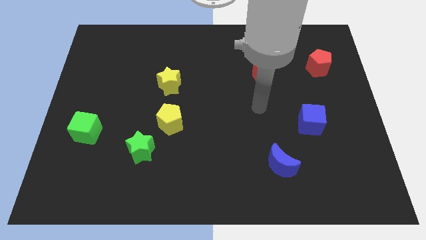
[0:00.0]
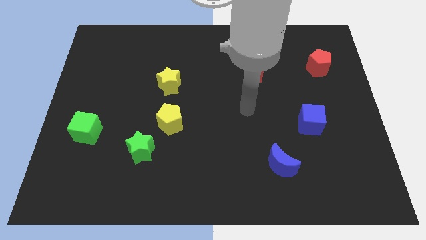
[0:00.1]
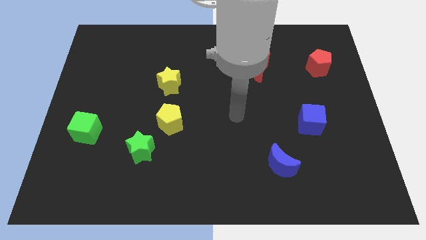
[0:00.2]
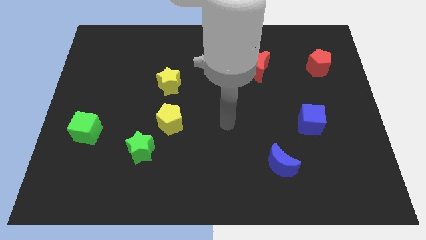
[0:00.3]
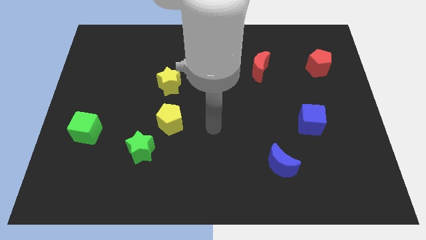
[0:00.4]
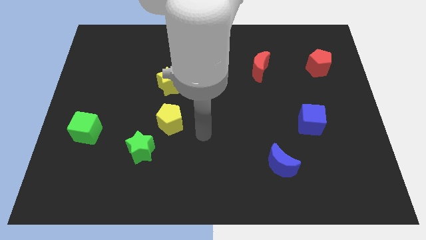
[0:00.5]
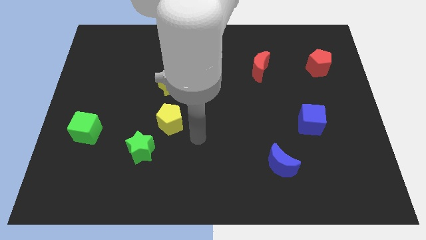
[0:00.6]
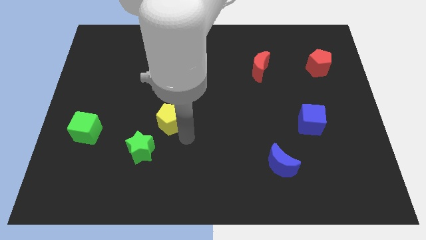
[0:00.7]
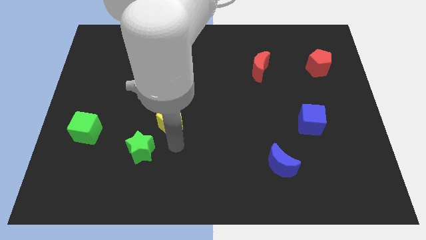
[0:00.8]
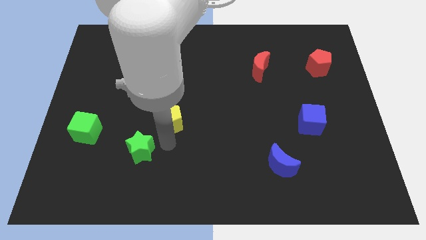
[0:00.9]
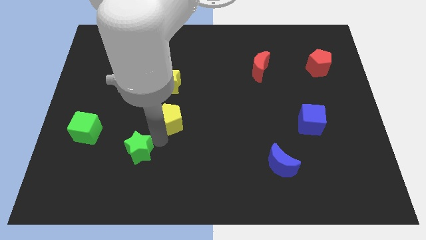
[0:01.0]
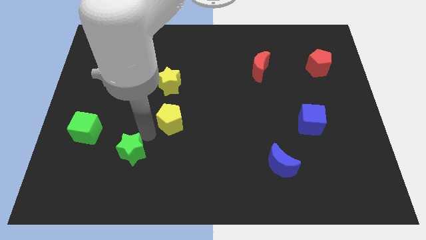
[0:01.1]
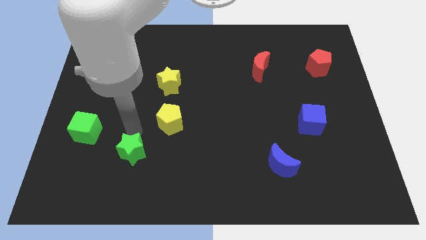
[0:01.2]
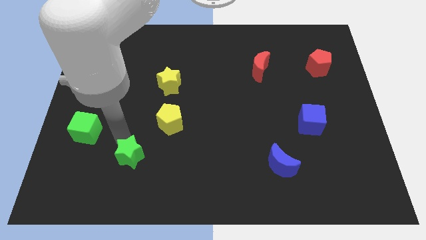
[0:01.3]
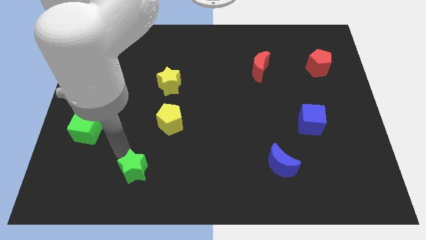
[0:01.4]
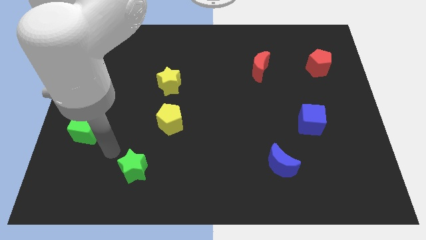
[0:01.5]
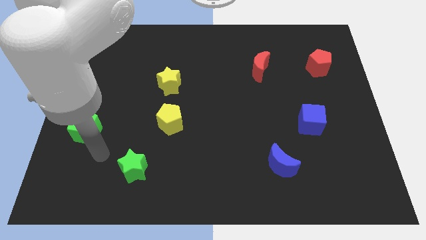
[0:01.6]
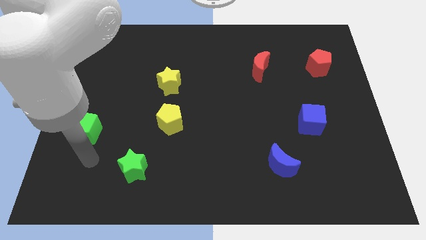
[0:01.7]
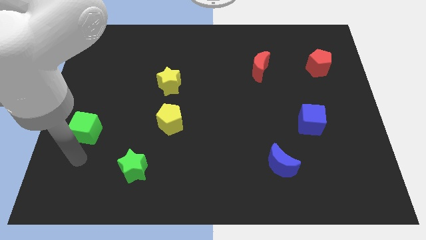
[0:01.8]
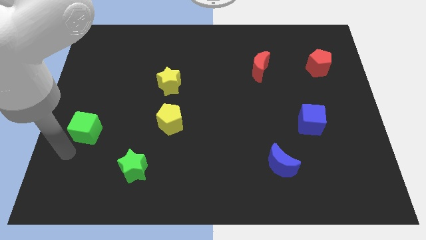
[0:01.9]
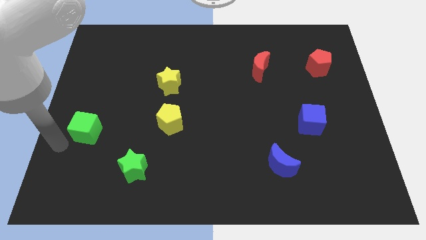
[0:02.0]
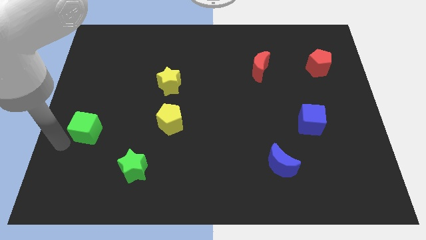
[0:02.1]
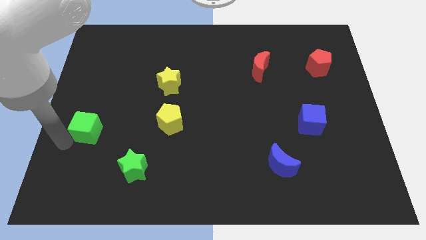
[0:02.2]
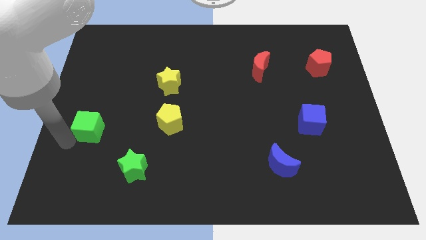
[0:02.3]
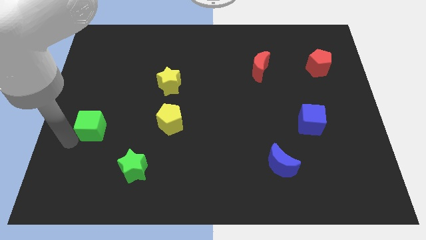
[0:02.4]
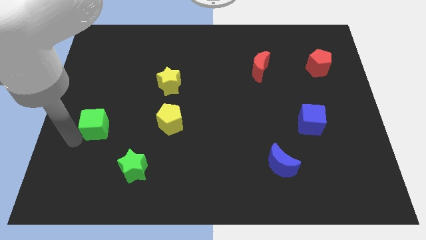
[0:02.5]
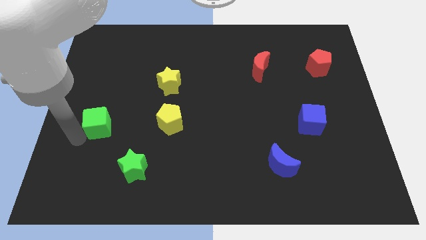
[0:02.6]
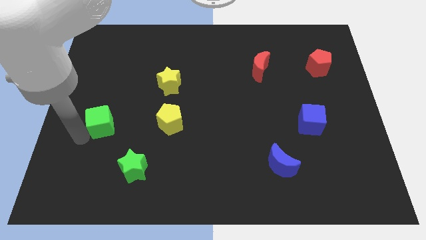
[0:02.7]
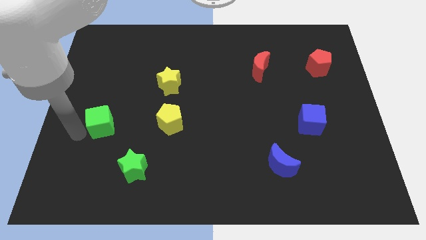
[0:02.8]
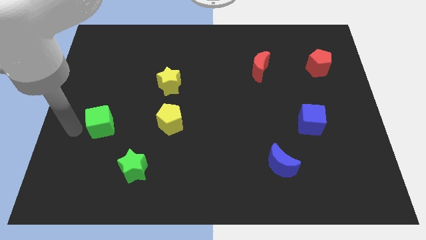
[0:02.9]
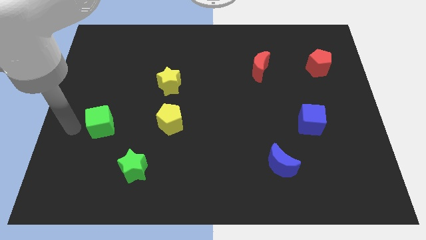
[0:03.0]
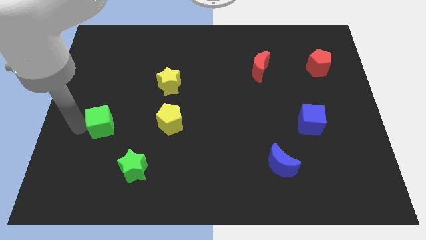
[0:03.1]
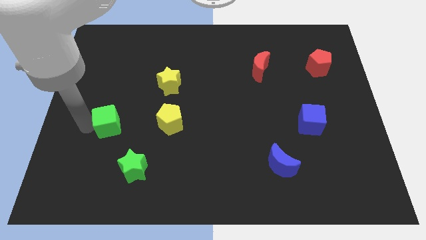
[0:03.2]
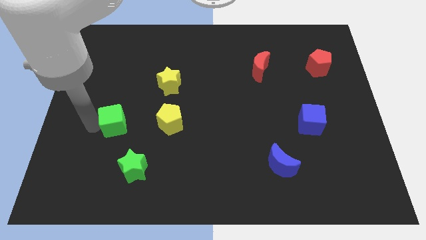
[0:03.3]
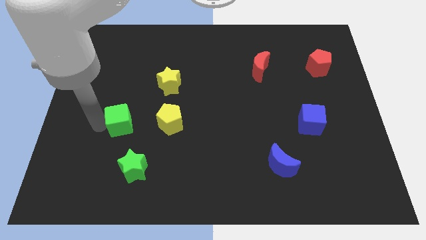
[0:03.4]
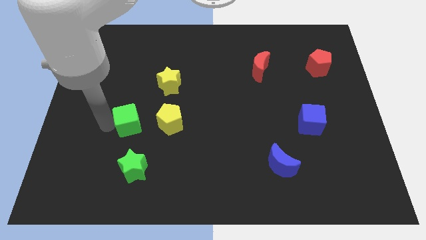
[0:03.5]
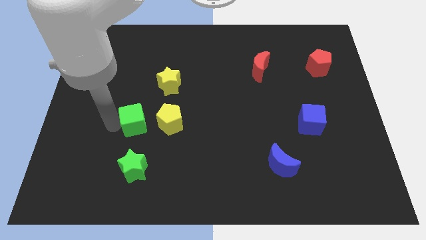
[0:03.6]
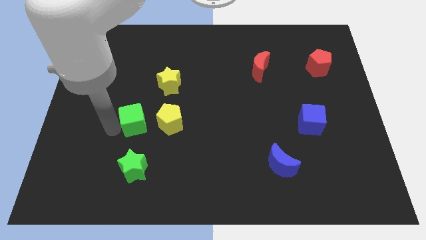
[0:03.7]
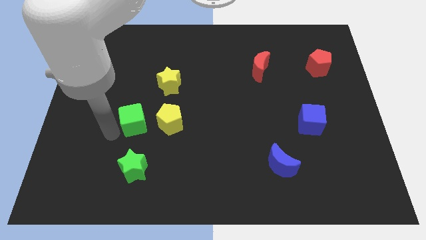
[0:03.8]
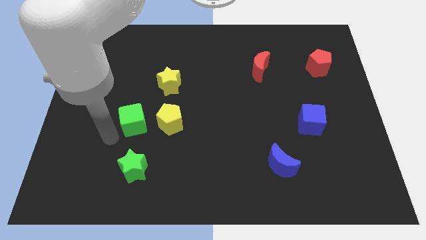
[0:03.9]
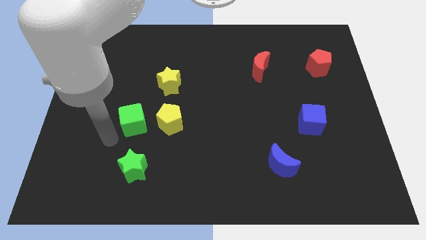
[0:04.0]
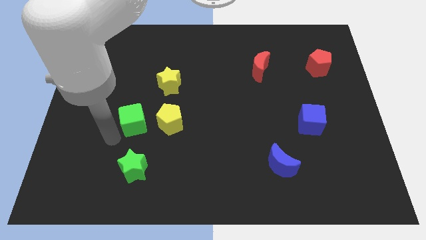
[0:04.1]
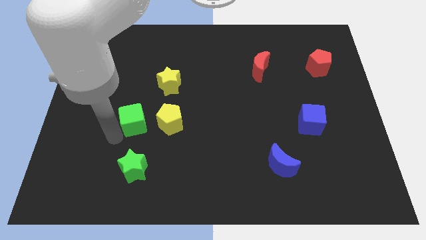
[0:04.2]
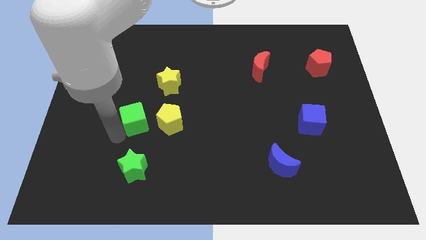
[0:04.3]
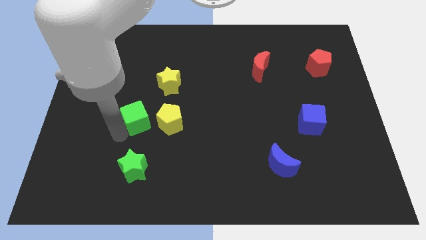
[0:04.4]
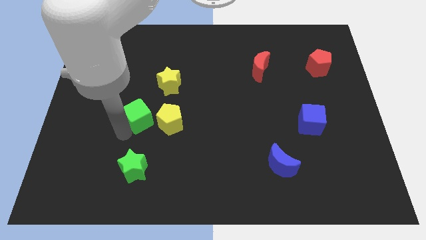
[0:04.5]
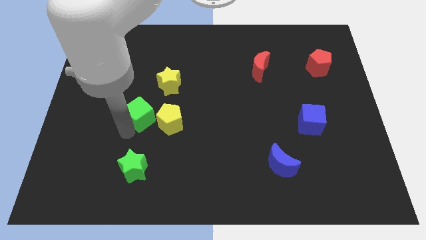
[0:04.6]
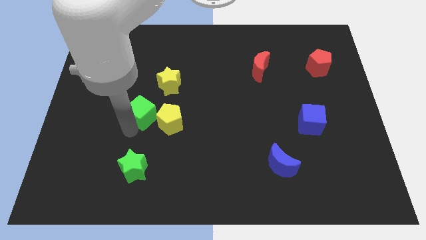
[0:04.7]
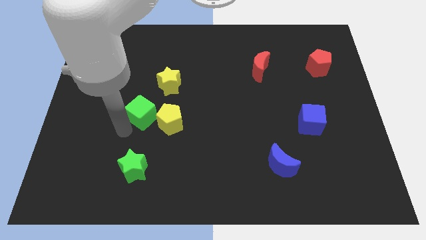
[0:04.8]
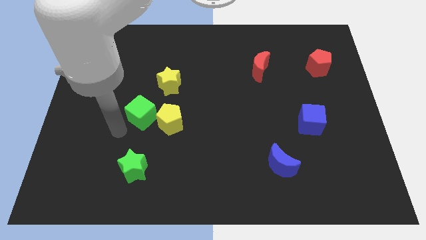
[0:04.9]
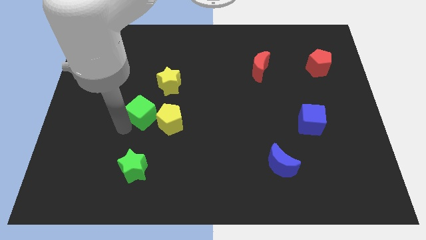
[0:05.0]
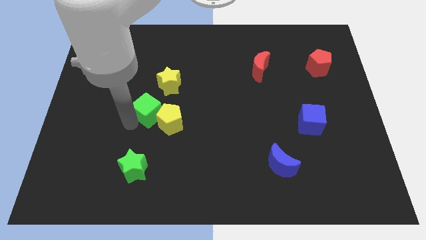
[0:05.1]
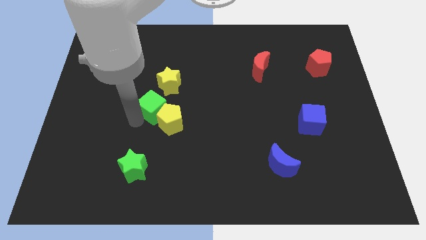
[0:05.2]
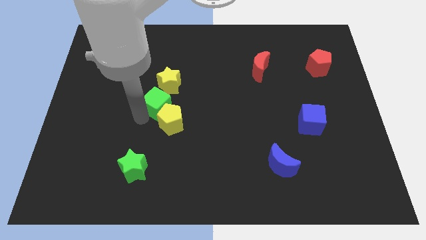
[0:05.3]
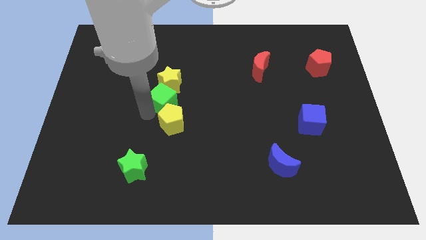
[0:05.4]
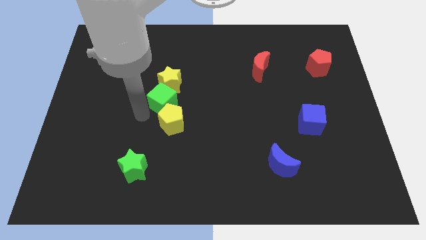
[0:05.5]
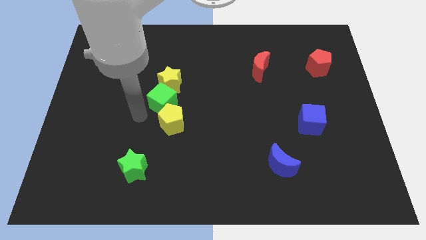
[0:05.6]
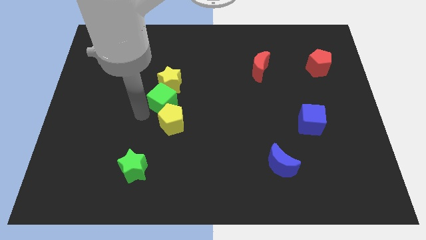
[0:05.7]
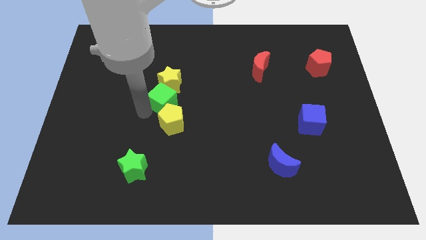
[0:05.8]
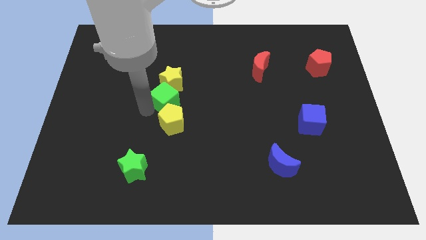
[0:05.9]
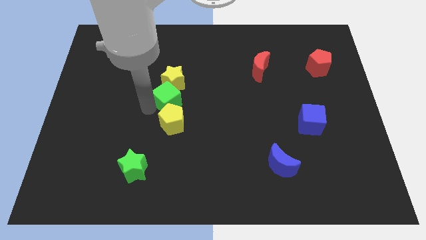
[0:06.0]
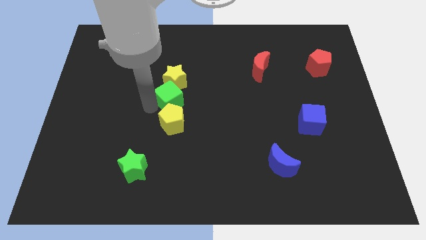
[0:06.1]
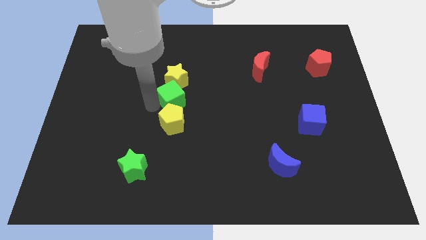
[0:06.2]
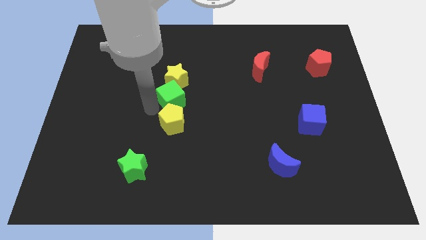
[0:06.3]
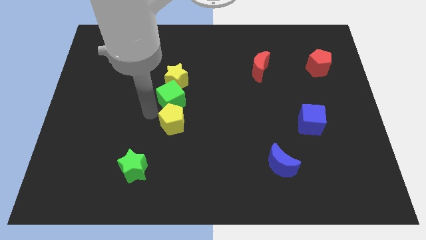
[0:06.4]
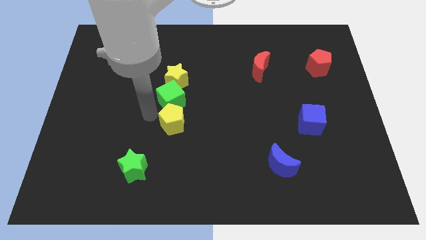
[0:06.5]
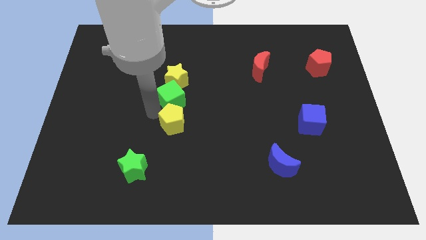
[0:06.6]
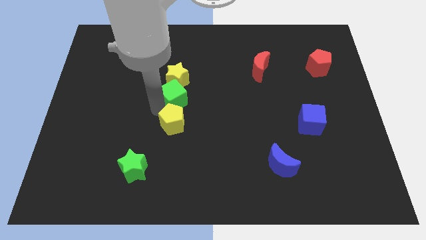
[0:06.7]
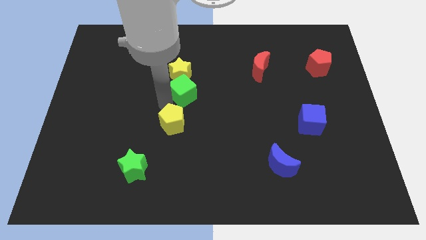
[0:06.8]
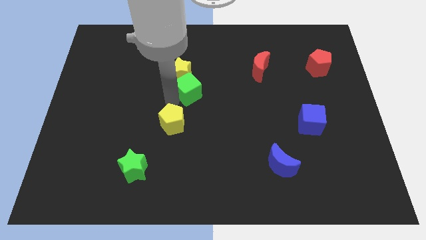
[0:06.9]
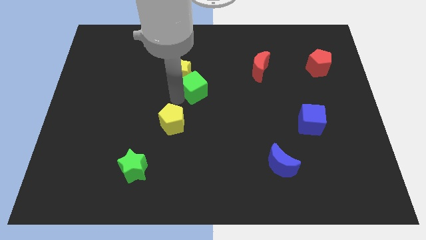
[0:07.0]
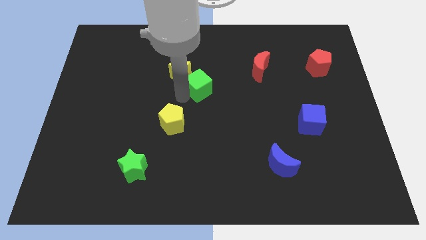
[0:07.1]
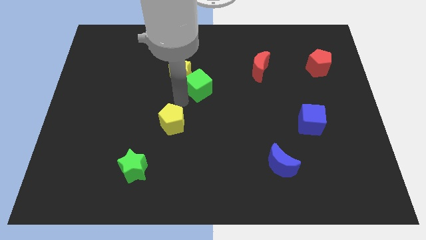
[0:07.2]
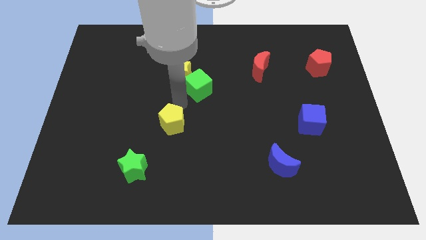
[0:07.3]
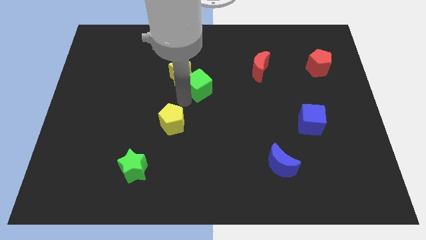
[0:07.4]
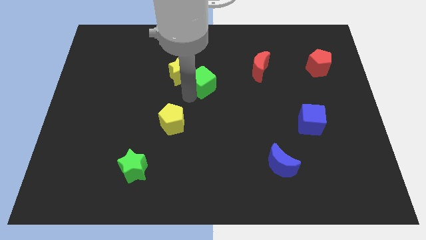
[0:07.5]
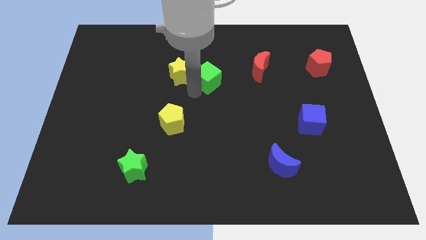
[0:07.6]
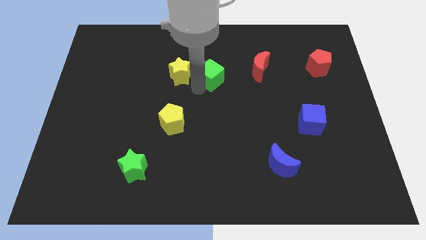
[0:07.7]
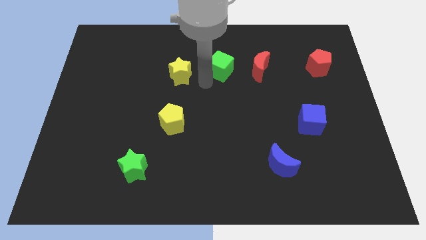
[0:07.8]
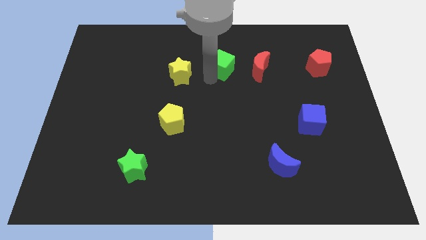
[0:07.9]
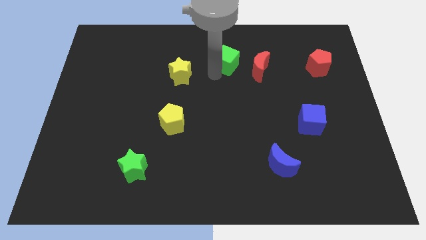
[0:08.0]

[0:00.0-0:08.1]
put the green cube to the top left side of the red moon
